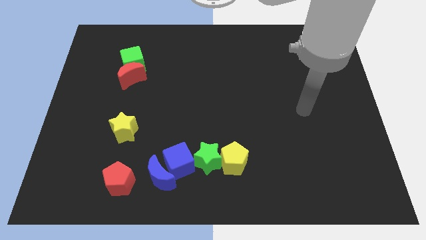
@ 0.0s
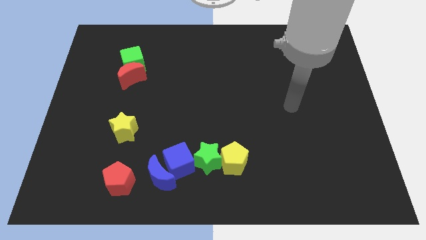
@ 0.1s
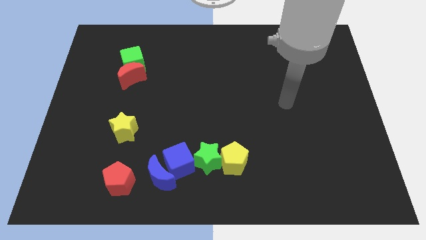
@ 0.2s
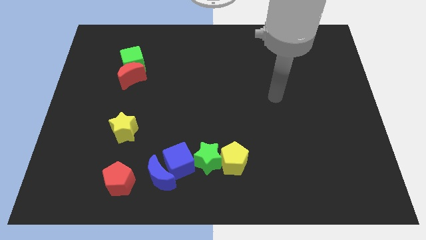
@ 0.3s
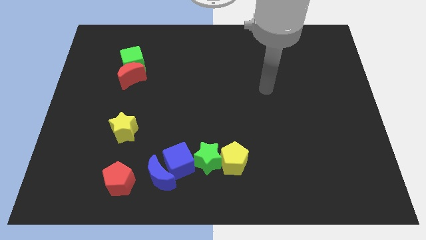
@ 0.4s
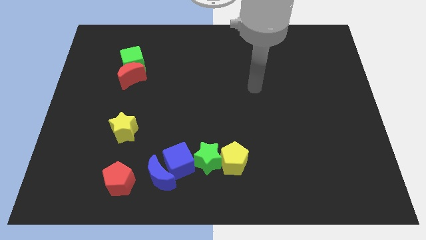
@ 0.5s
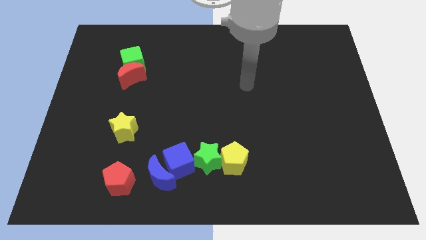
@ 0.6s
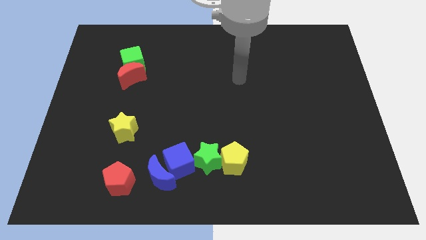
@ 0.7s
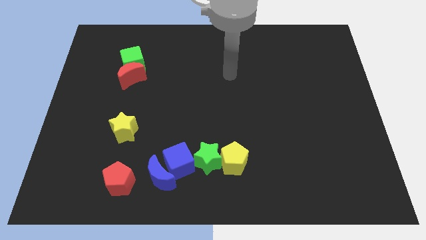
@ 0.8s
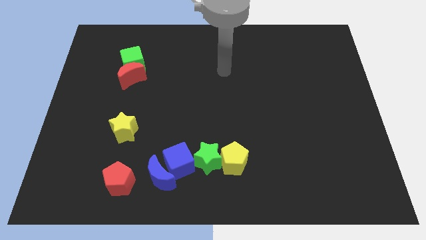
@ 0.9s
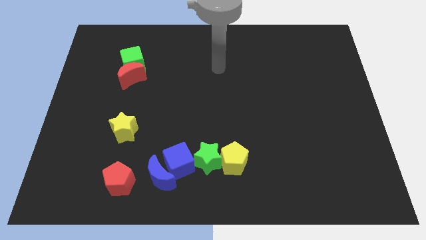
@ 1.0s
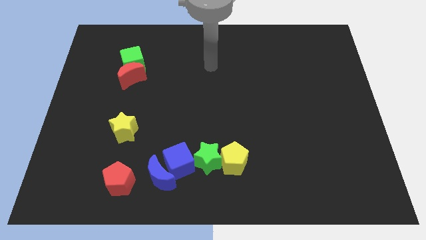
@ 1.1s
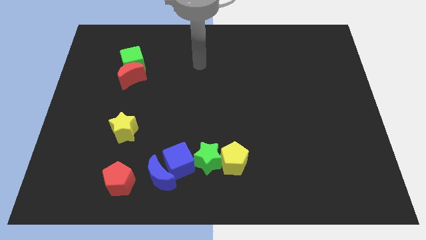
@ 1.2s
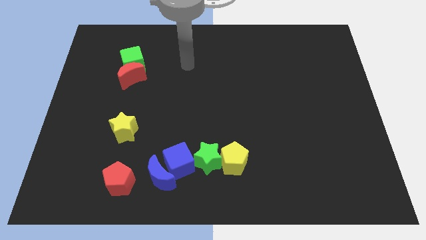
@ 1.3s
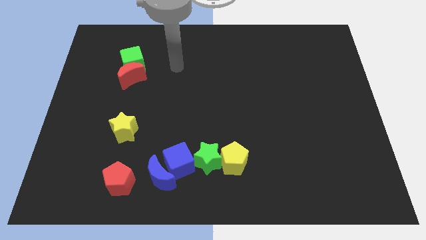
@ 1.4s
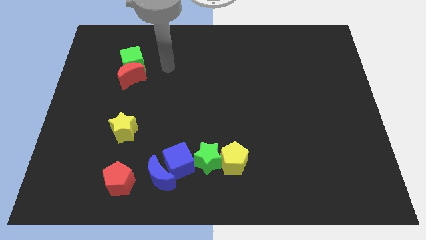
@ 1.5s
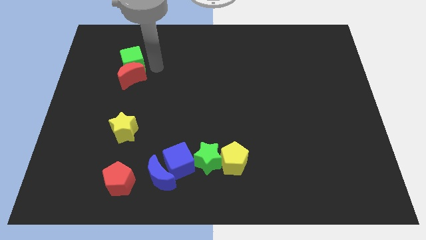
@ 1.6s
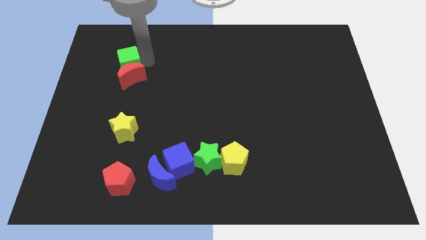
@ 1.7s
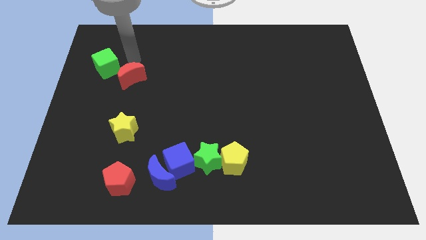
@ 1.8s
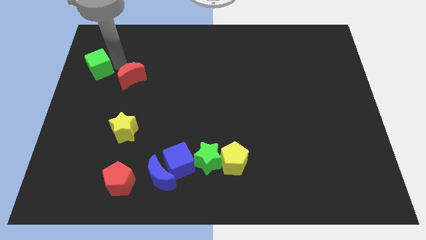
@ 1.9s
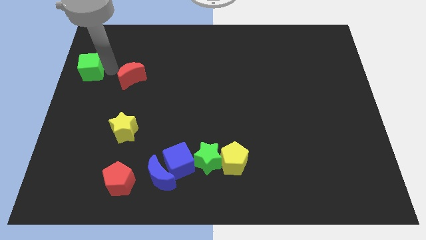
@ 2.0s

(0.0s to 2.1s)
pull the red moon apart from the green cube

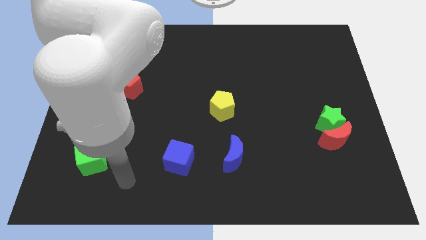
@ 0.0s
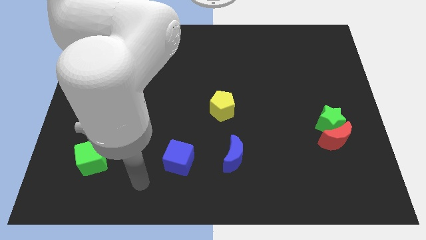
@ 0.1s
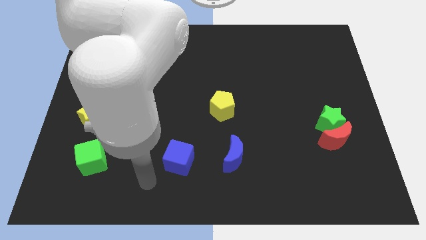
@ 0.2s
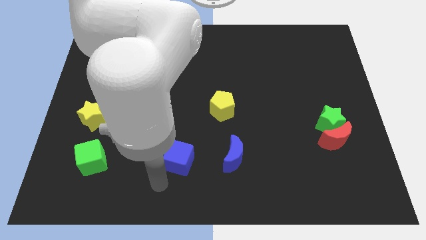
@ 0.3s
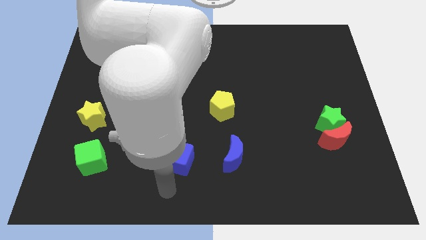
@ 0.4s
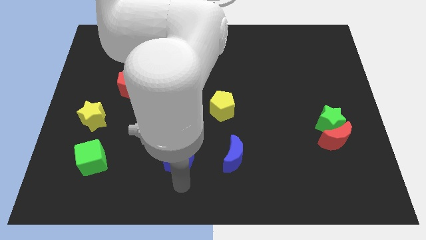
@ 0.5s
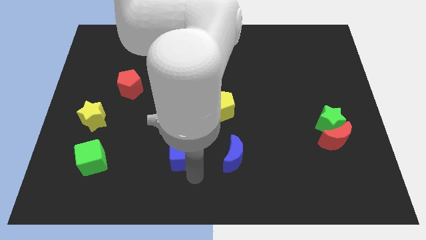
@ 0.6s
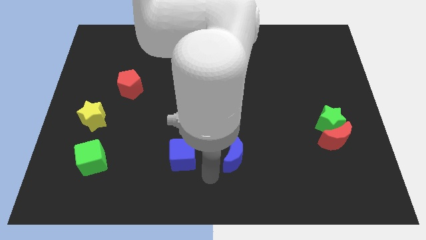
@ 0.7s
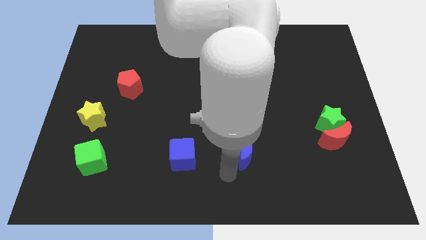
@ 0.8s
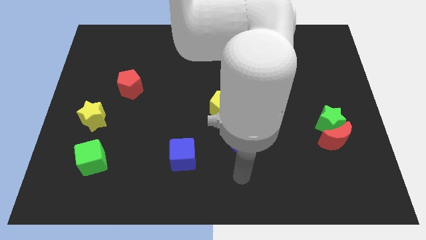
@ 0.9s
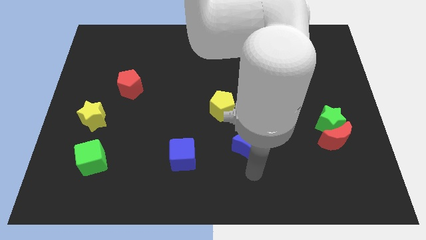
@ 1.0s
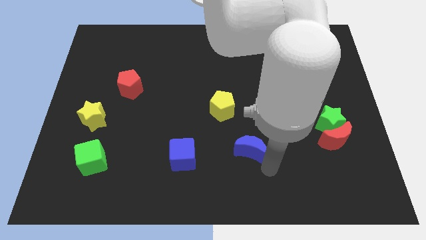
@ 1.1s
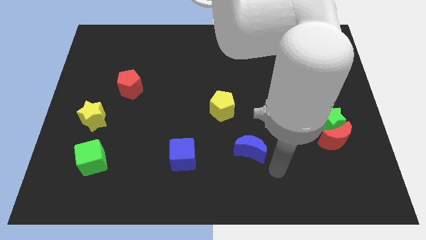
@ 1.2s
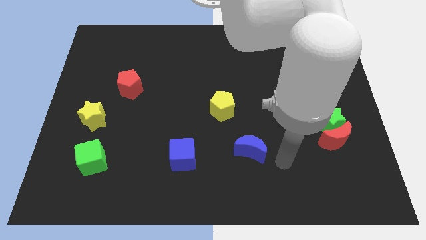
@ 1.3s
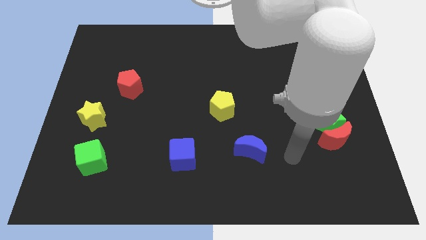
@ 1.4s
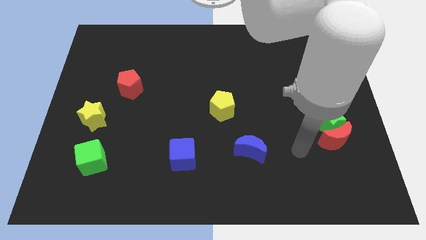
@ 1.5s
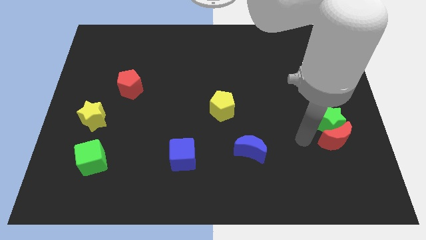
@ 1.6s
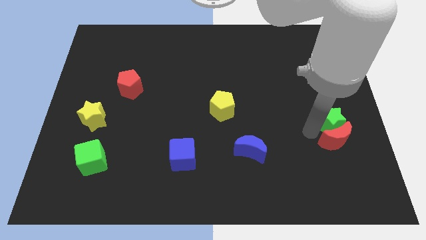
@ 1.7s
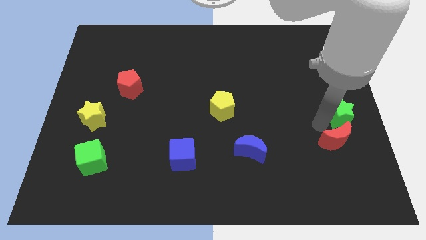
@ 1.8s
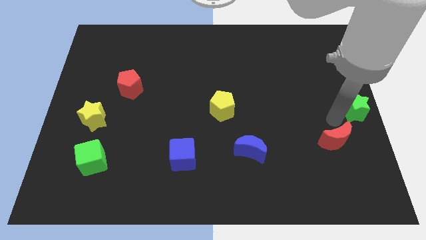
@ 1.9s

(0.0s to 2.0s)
move the red moon away from the green star

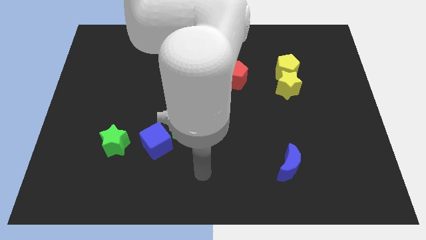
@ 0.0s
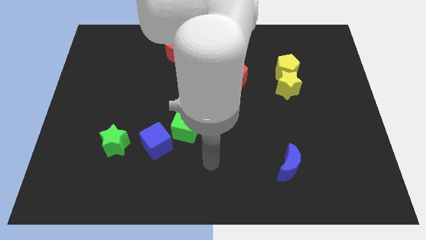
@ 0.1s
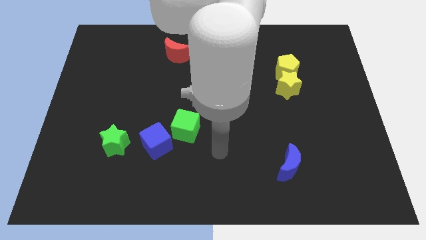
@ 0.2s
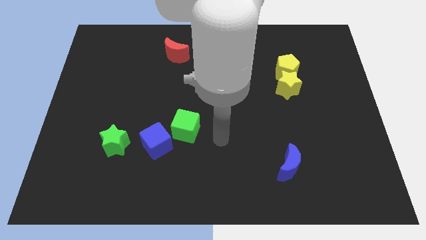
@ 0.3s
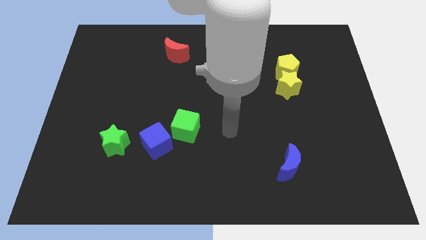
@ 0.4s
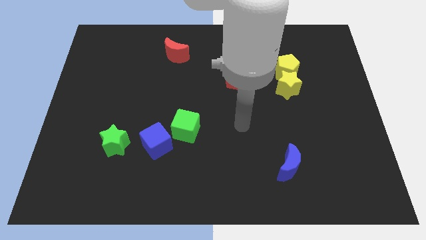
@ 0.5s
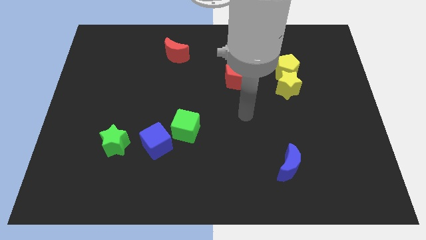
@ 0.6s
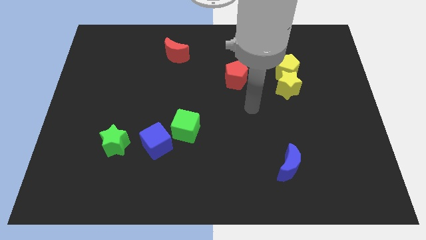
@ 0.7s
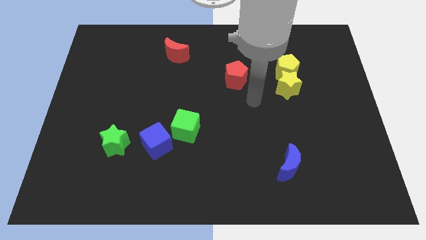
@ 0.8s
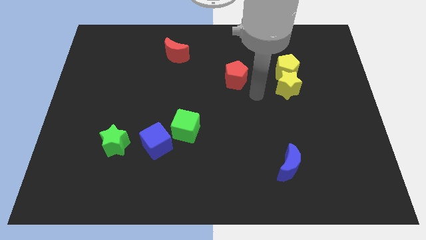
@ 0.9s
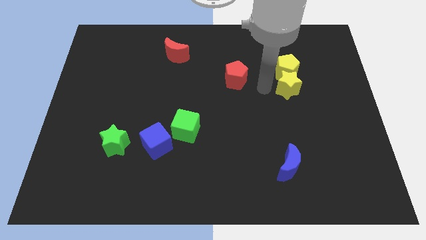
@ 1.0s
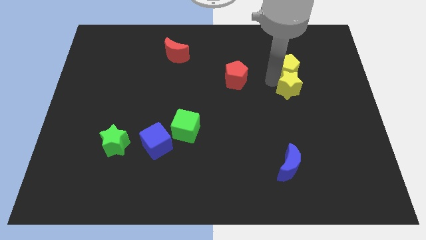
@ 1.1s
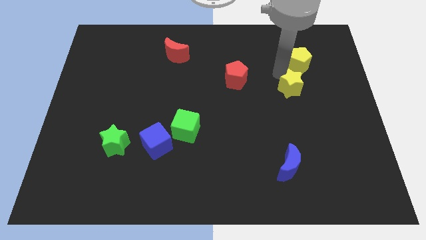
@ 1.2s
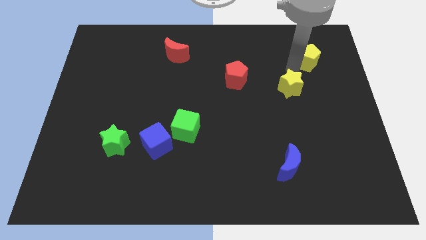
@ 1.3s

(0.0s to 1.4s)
separate the yellow star from the yellow pentagon

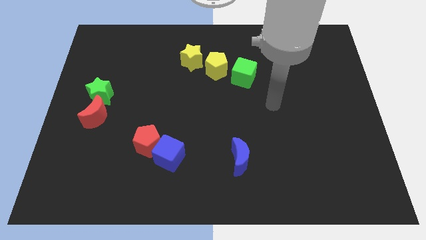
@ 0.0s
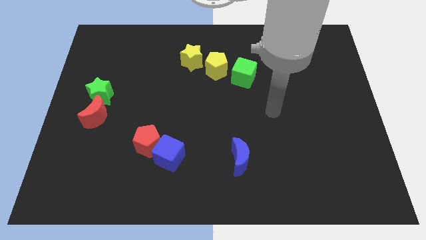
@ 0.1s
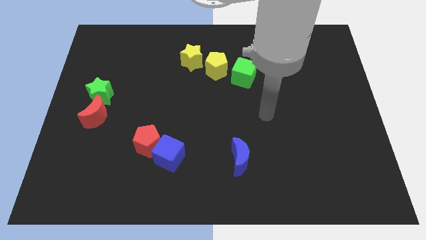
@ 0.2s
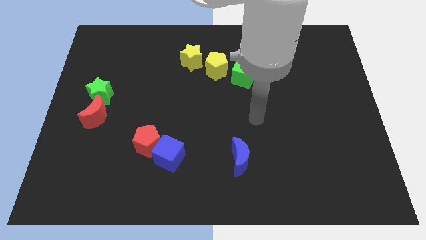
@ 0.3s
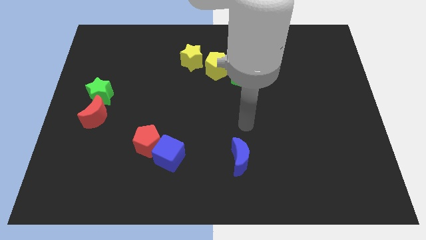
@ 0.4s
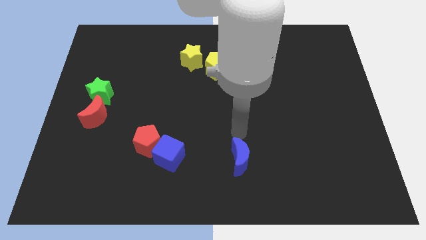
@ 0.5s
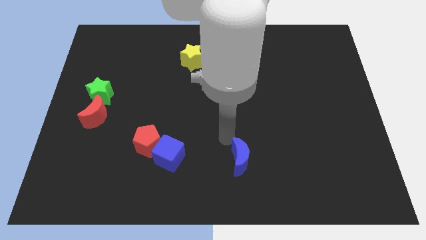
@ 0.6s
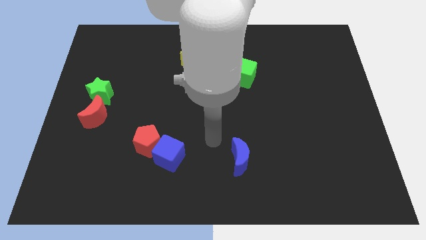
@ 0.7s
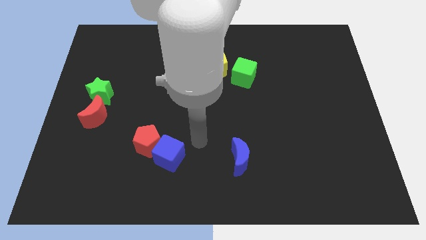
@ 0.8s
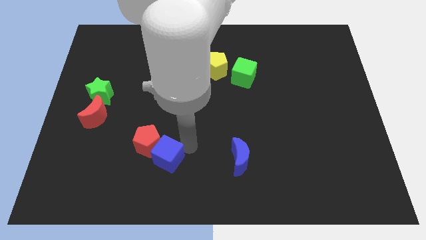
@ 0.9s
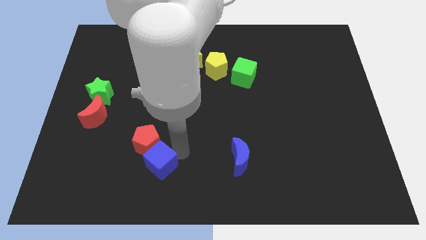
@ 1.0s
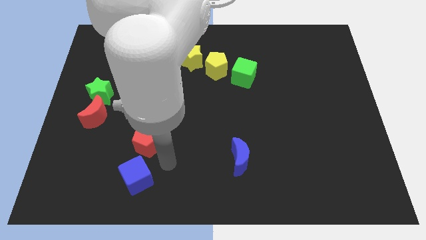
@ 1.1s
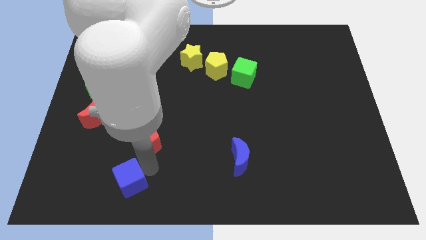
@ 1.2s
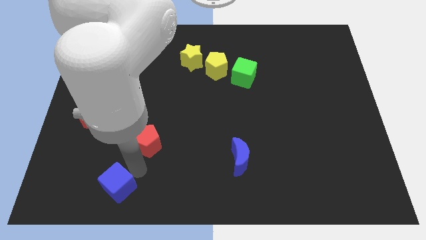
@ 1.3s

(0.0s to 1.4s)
pull the red pentagon apart from the blue cube

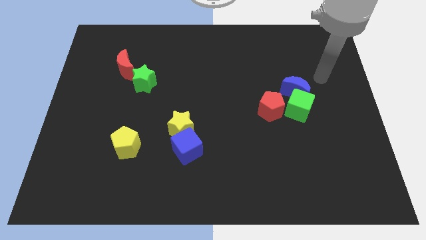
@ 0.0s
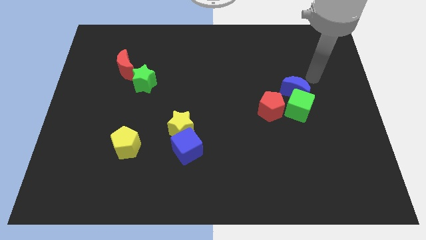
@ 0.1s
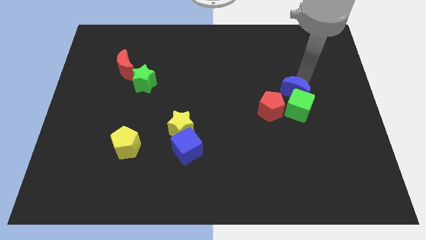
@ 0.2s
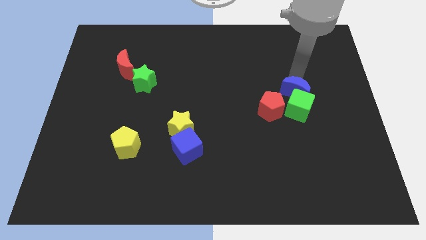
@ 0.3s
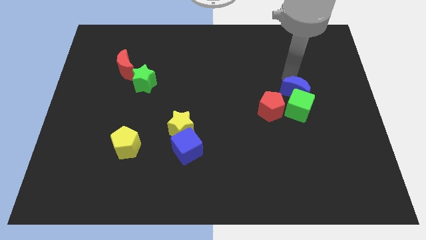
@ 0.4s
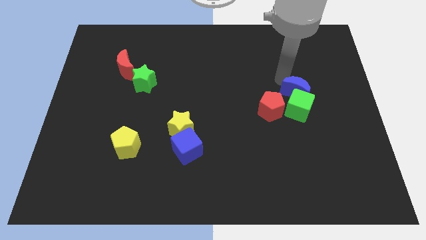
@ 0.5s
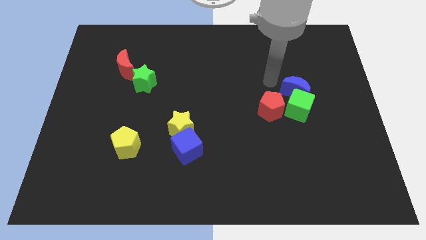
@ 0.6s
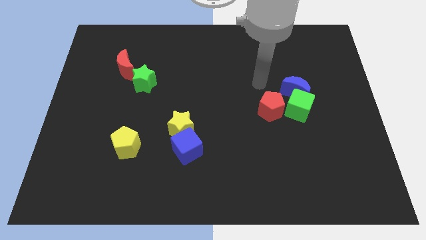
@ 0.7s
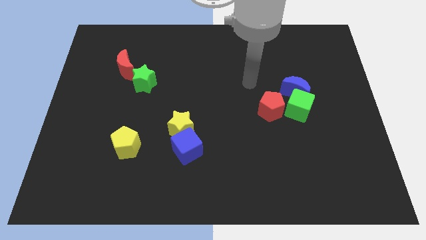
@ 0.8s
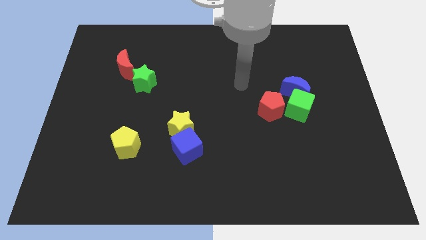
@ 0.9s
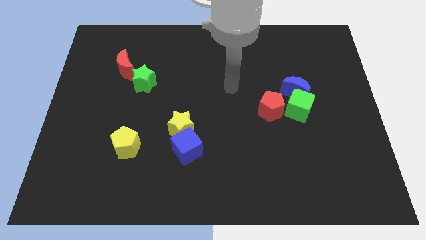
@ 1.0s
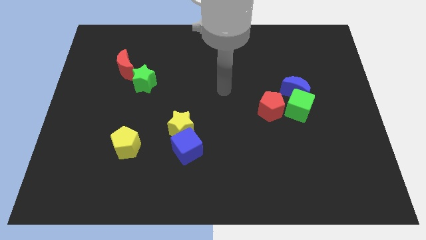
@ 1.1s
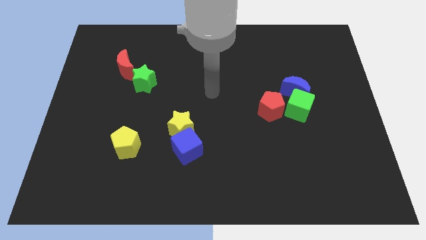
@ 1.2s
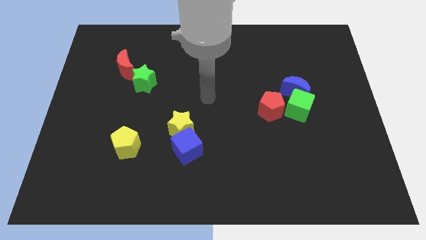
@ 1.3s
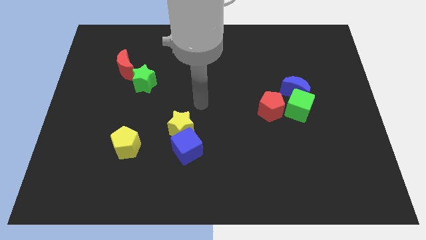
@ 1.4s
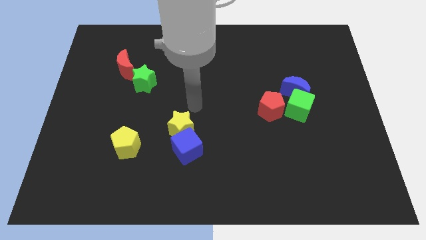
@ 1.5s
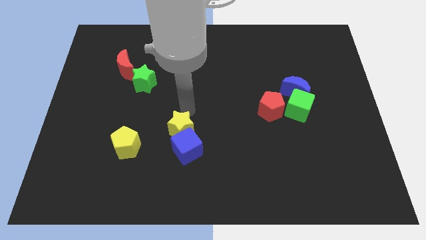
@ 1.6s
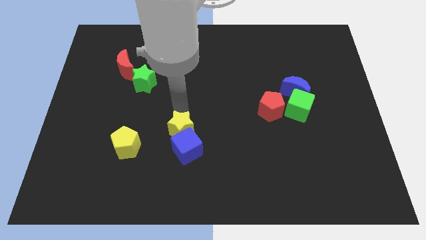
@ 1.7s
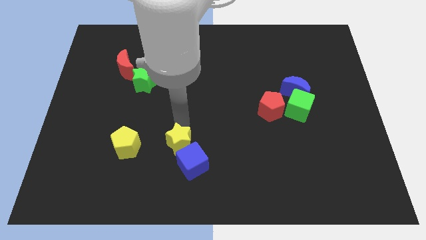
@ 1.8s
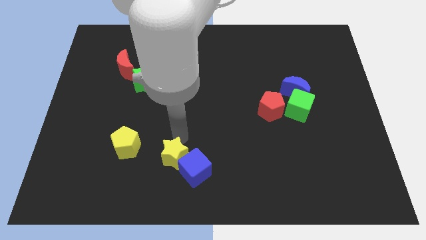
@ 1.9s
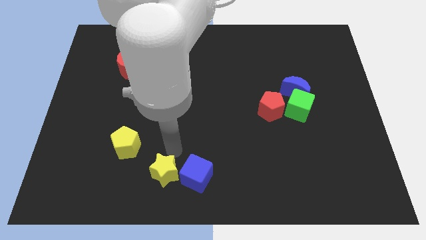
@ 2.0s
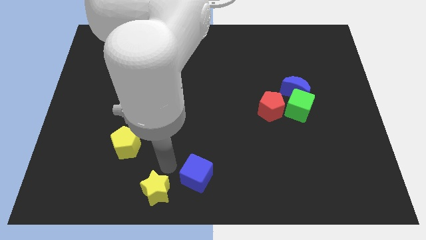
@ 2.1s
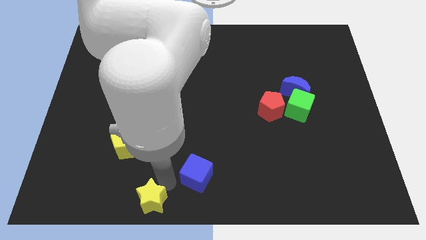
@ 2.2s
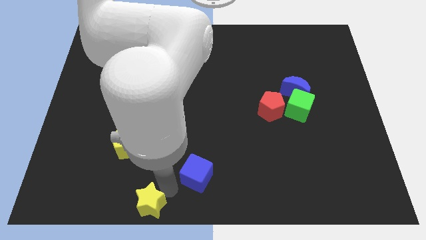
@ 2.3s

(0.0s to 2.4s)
separate the blue cube from the yellow star
